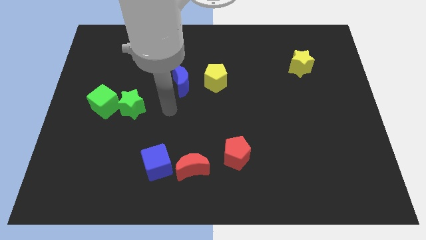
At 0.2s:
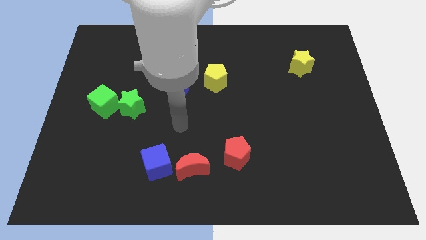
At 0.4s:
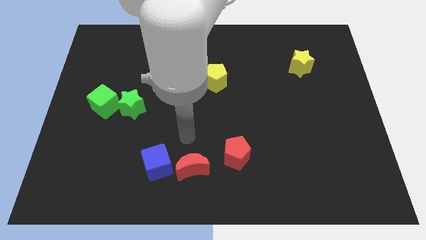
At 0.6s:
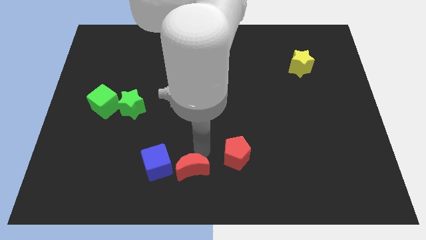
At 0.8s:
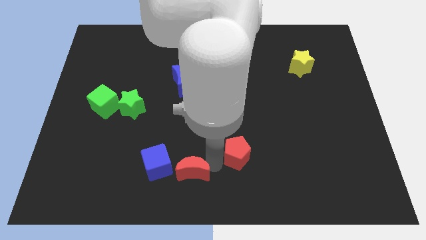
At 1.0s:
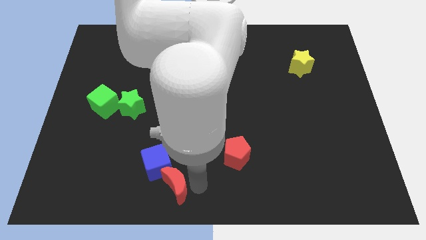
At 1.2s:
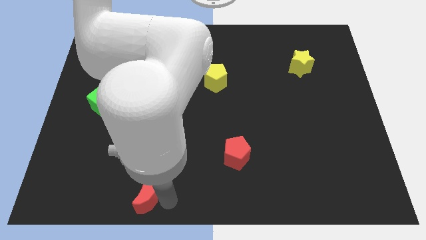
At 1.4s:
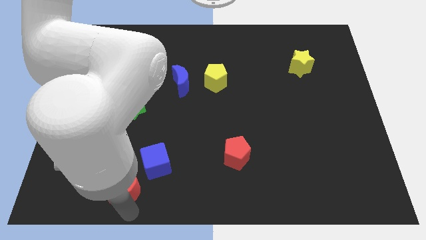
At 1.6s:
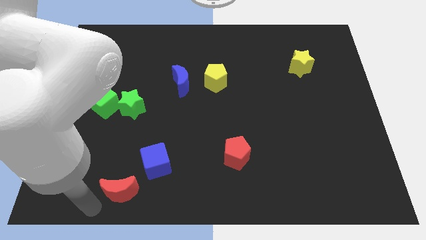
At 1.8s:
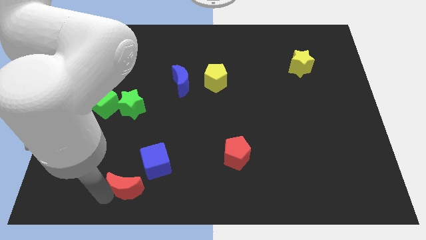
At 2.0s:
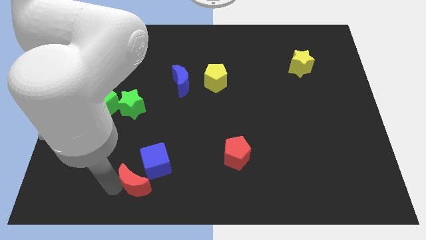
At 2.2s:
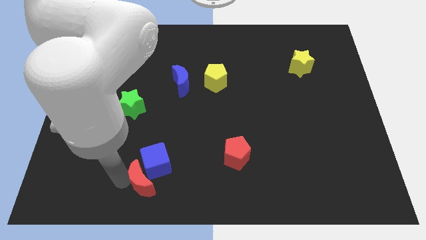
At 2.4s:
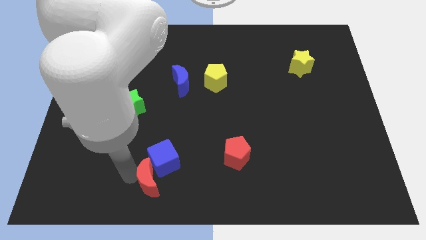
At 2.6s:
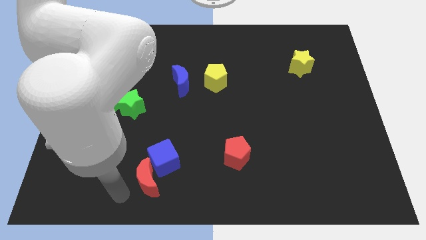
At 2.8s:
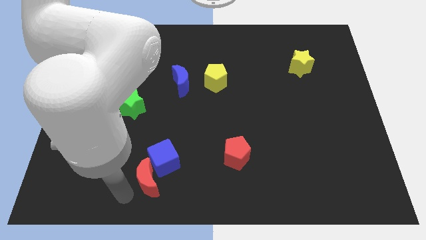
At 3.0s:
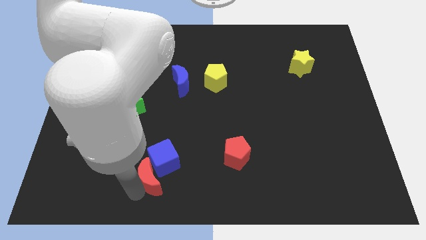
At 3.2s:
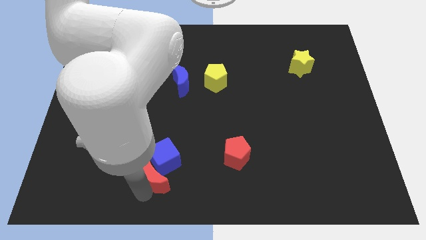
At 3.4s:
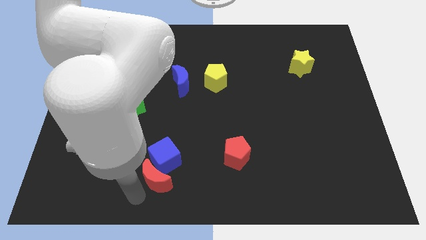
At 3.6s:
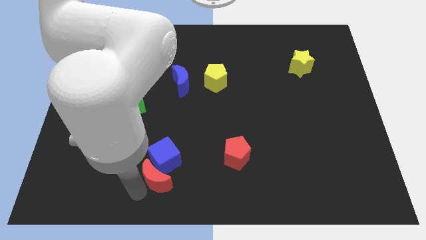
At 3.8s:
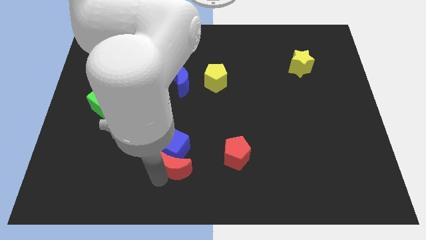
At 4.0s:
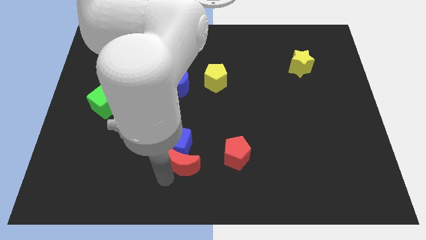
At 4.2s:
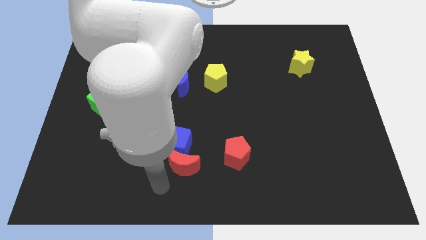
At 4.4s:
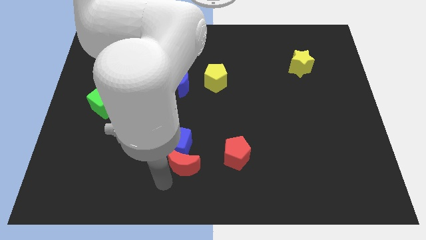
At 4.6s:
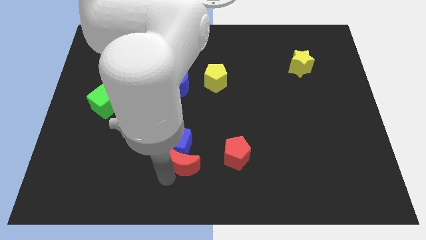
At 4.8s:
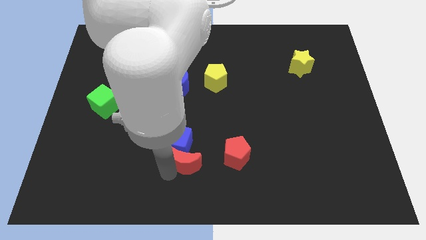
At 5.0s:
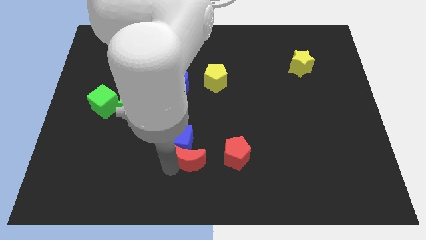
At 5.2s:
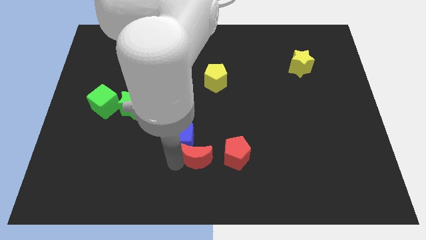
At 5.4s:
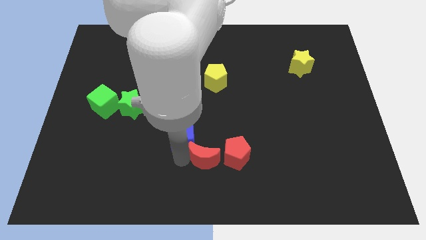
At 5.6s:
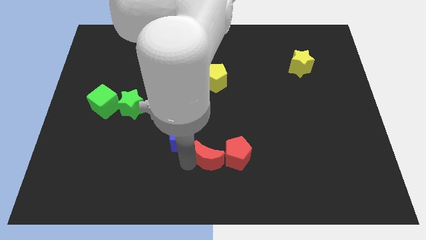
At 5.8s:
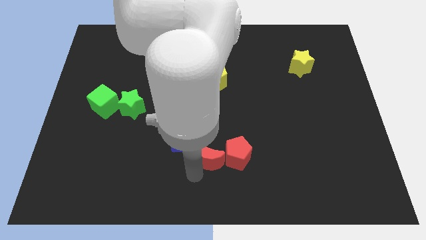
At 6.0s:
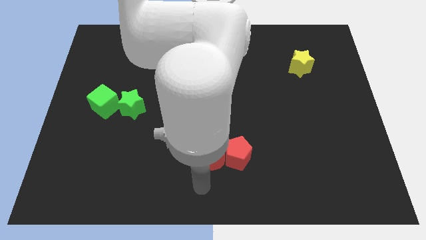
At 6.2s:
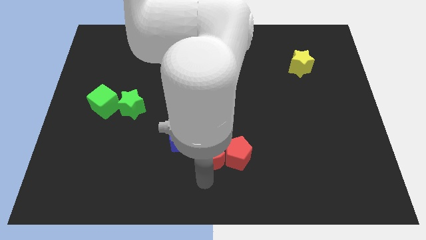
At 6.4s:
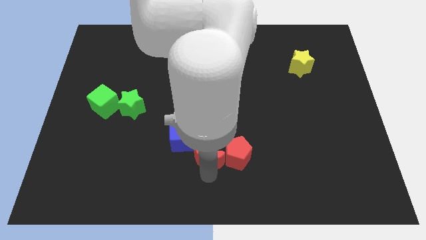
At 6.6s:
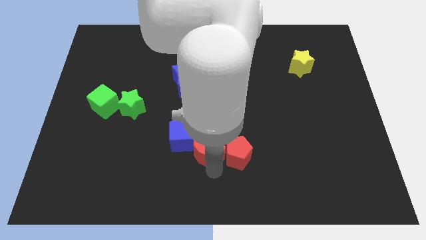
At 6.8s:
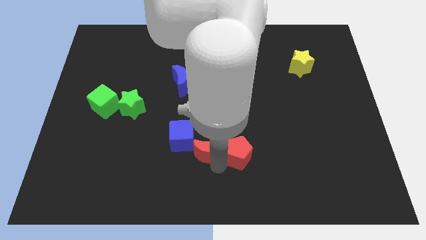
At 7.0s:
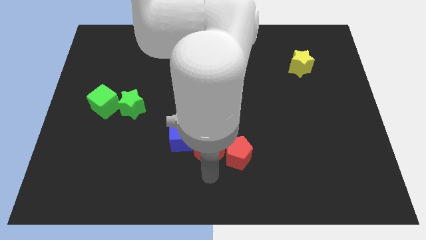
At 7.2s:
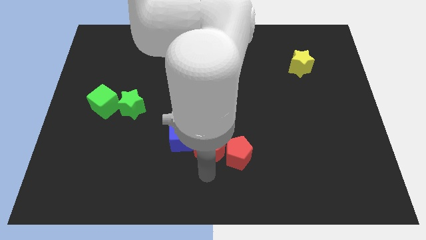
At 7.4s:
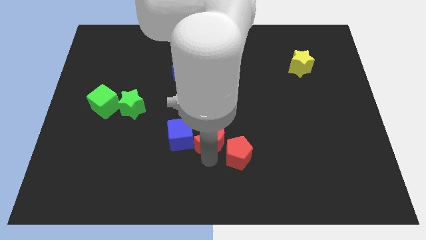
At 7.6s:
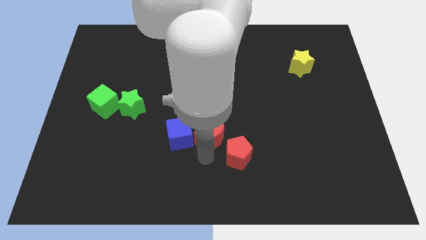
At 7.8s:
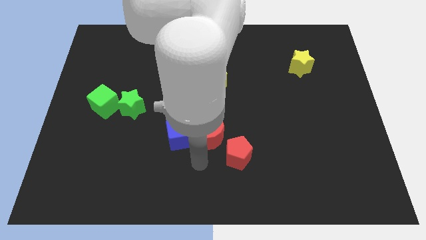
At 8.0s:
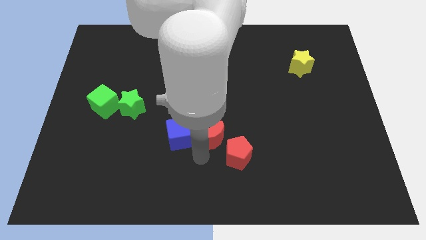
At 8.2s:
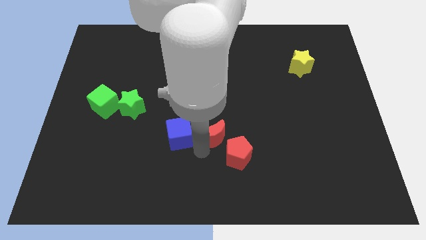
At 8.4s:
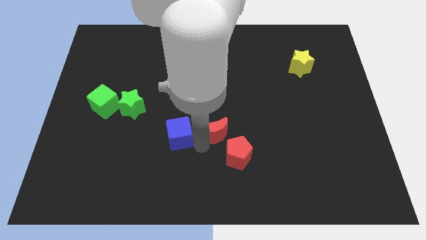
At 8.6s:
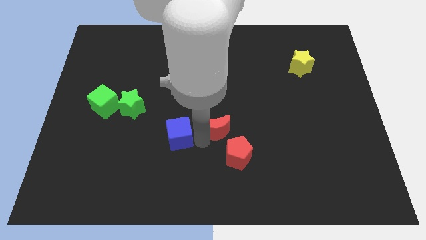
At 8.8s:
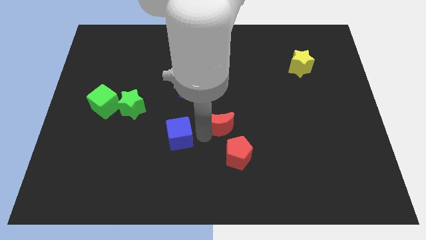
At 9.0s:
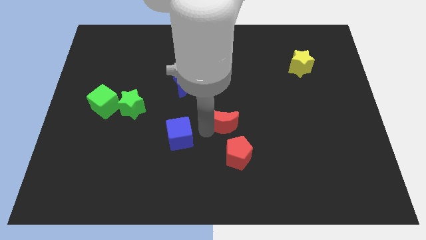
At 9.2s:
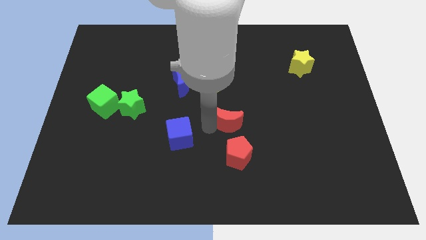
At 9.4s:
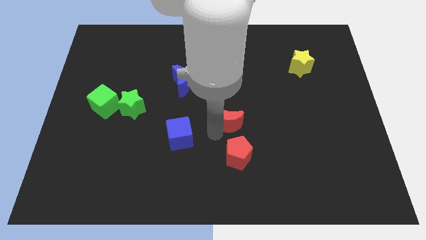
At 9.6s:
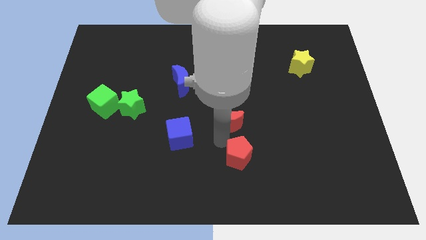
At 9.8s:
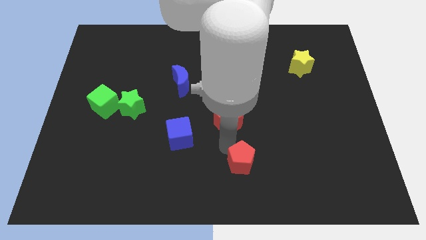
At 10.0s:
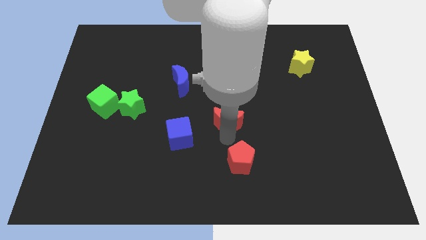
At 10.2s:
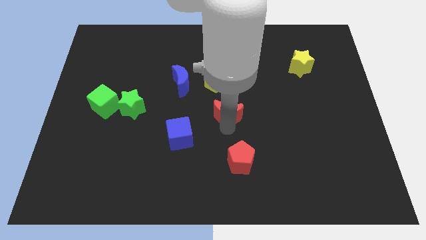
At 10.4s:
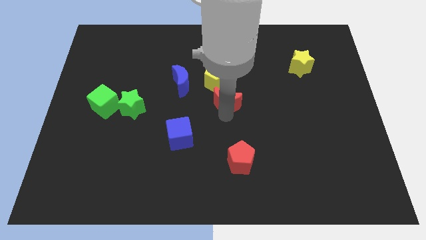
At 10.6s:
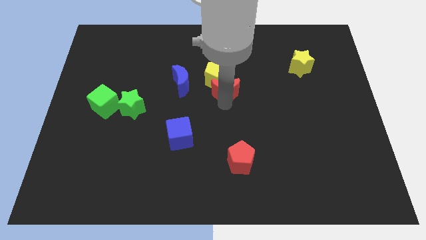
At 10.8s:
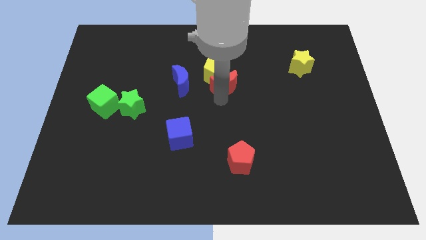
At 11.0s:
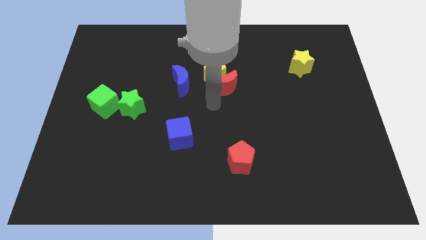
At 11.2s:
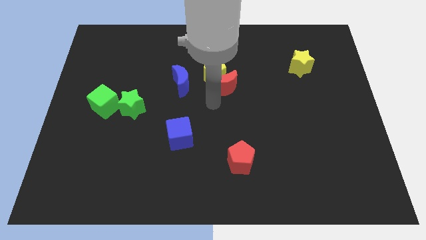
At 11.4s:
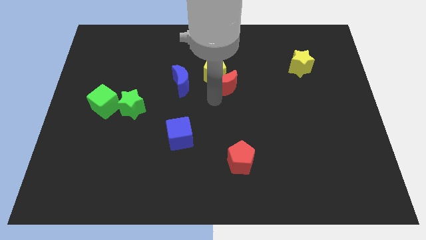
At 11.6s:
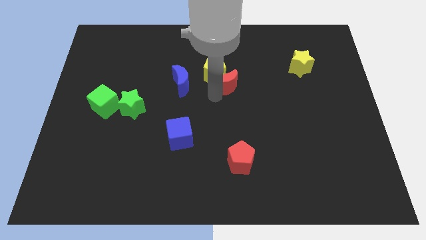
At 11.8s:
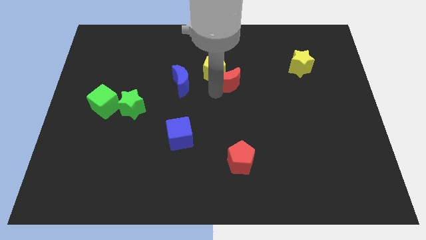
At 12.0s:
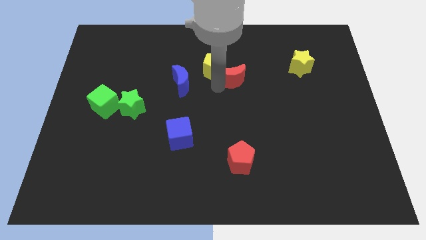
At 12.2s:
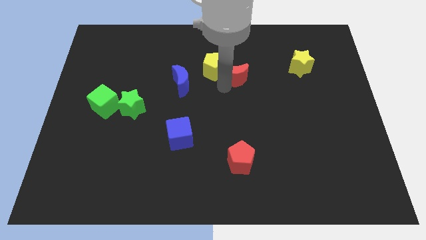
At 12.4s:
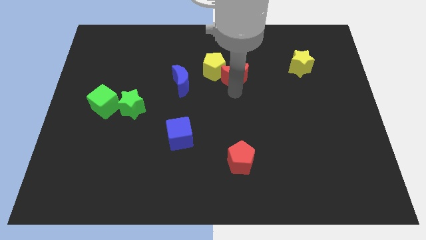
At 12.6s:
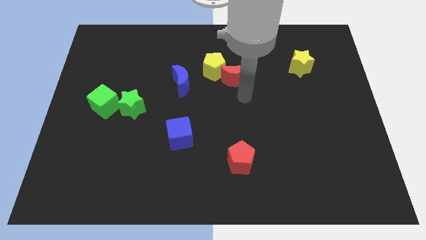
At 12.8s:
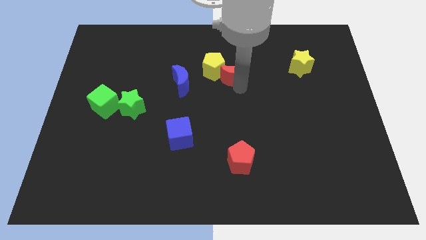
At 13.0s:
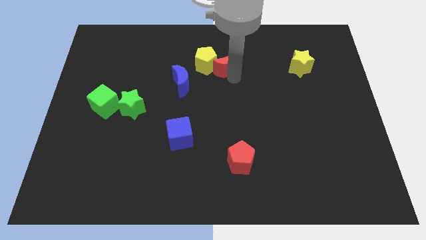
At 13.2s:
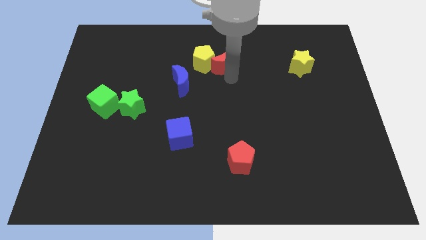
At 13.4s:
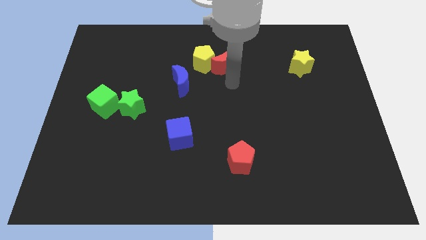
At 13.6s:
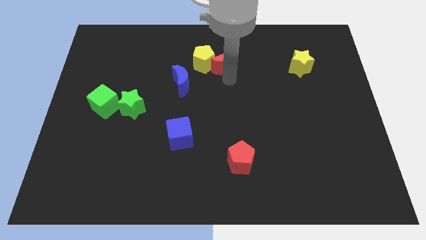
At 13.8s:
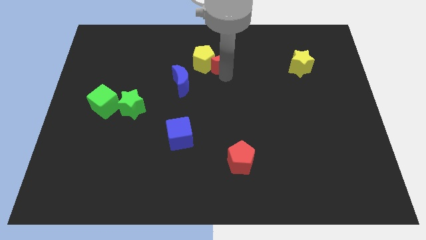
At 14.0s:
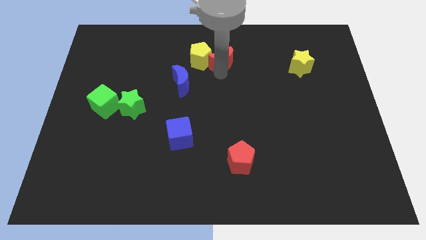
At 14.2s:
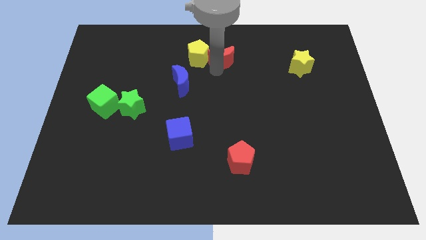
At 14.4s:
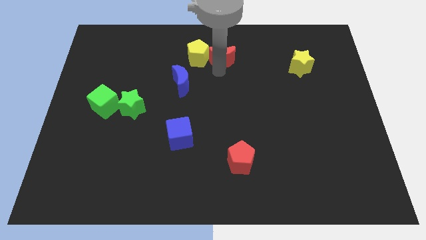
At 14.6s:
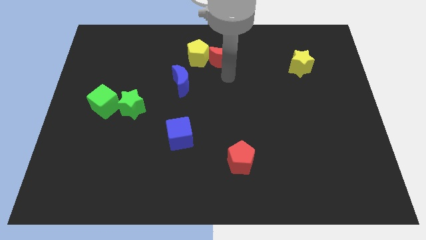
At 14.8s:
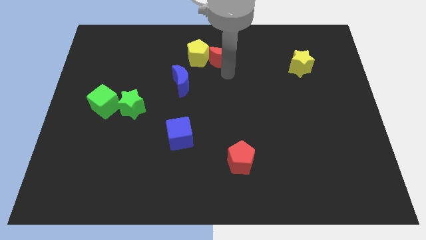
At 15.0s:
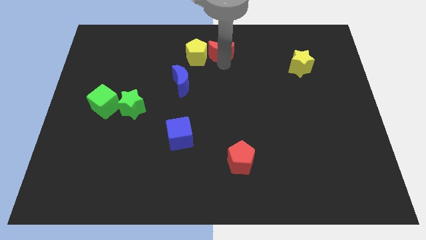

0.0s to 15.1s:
slide the red moon to the towards your base
